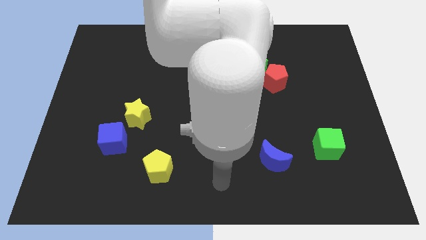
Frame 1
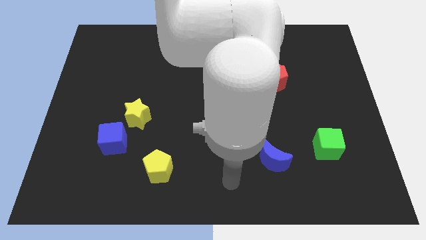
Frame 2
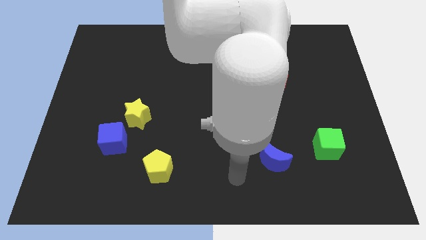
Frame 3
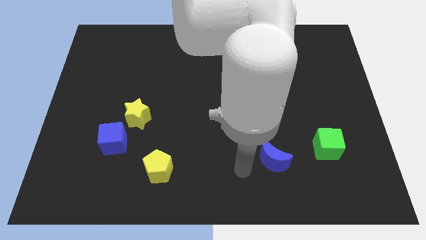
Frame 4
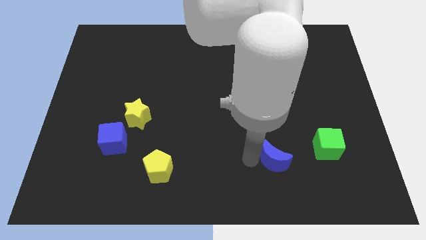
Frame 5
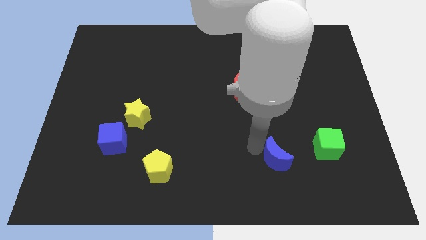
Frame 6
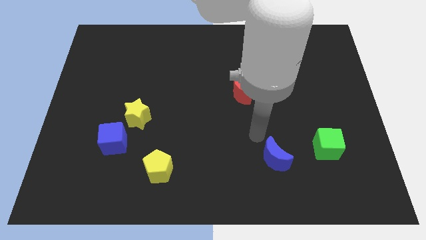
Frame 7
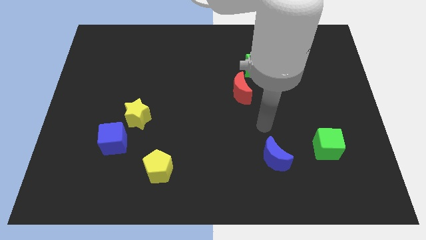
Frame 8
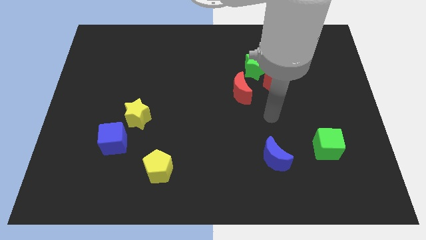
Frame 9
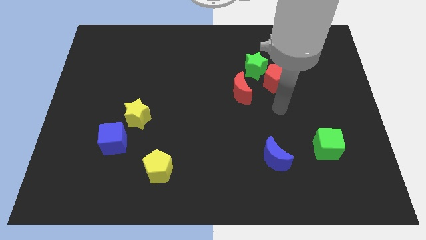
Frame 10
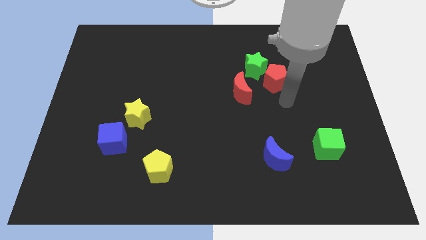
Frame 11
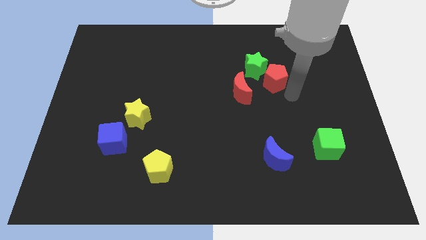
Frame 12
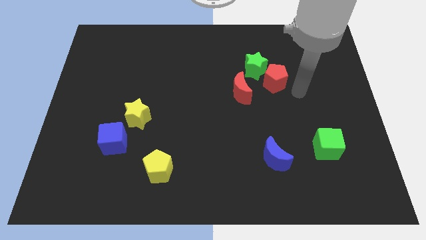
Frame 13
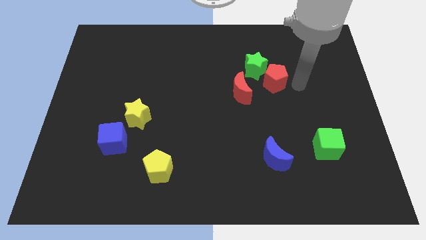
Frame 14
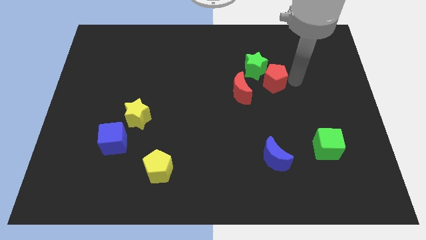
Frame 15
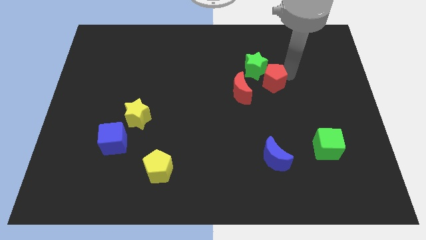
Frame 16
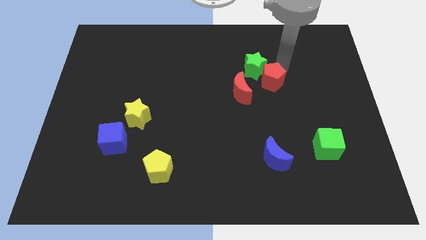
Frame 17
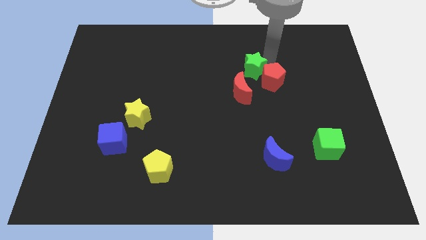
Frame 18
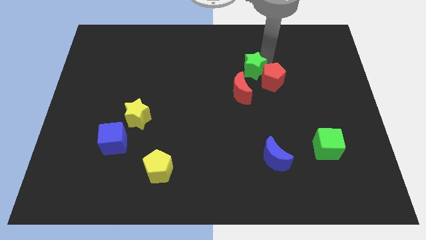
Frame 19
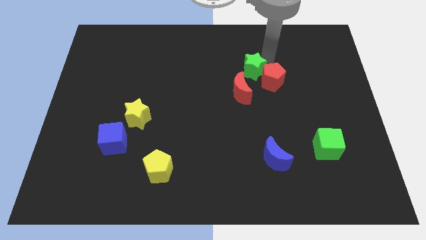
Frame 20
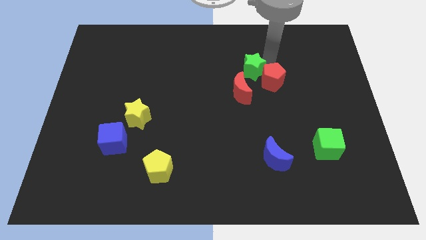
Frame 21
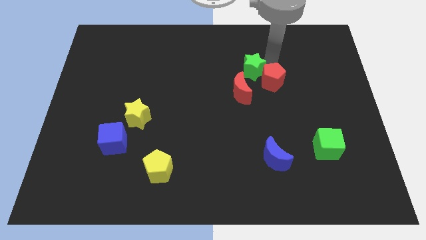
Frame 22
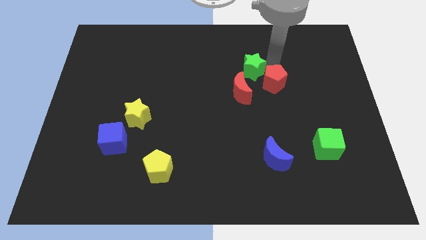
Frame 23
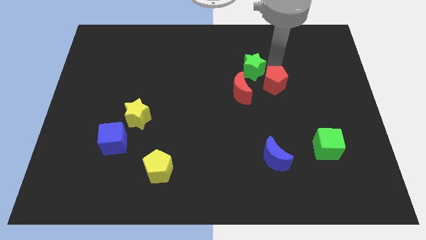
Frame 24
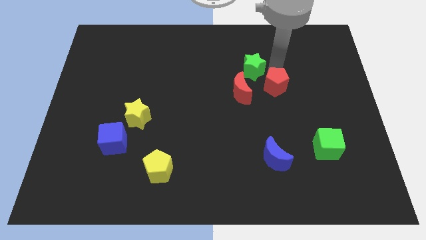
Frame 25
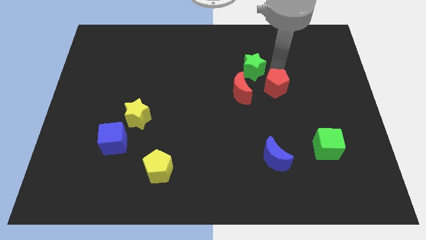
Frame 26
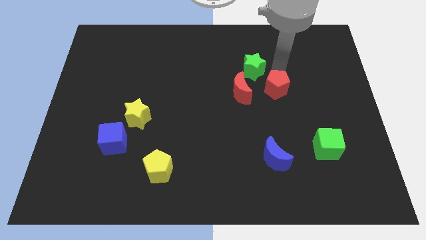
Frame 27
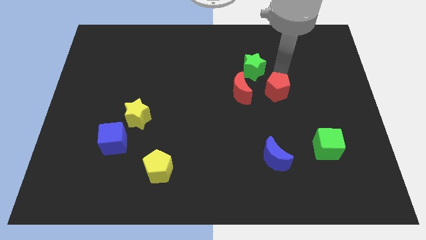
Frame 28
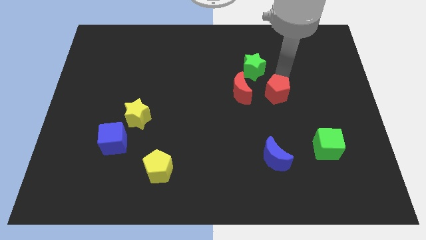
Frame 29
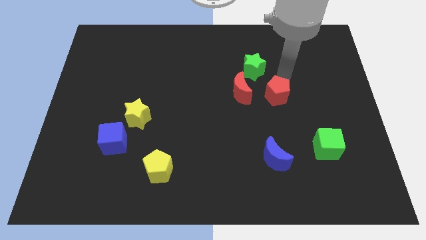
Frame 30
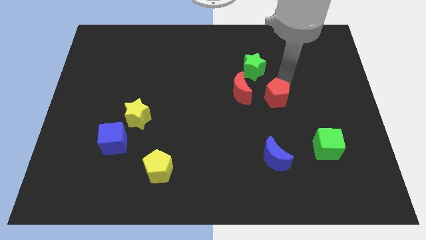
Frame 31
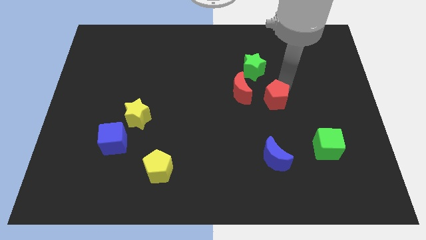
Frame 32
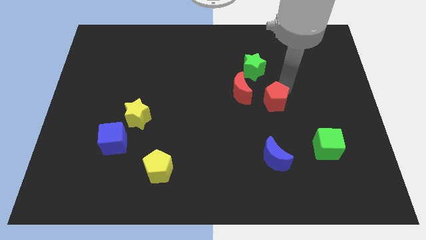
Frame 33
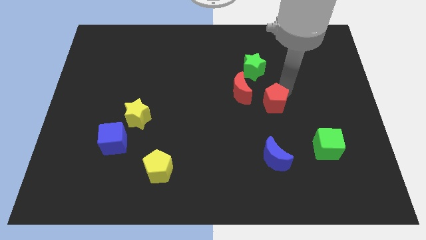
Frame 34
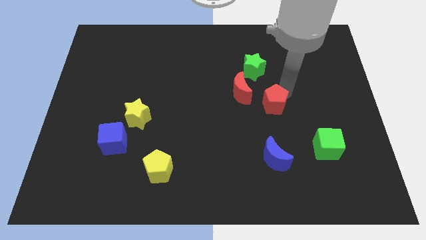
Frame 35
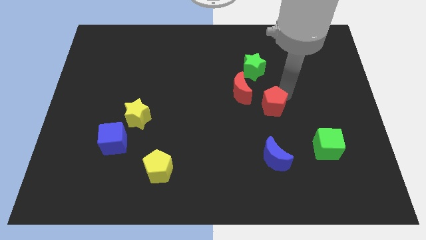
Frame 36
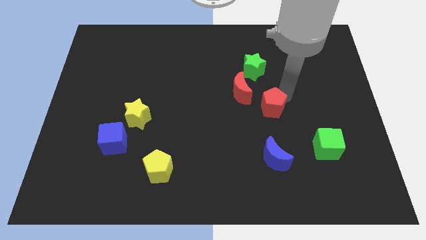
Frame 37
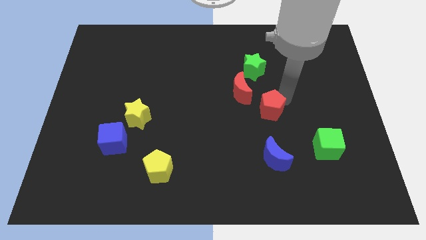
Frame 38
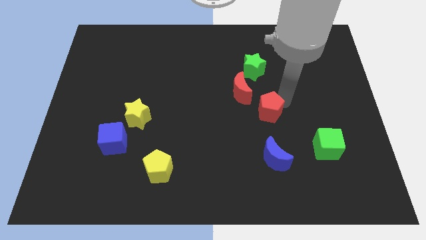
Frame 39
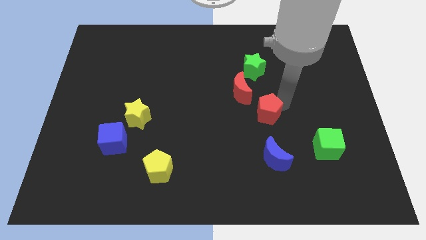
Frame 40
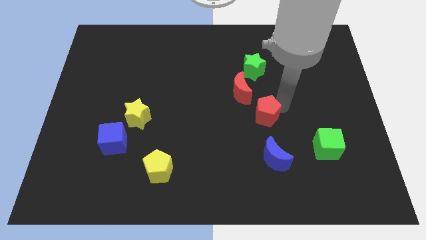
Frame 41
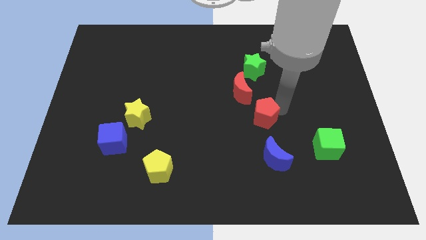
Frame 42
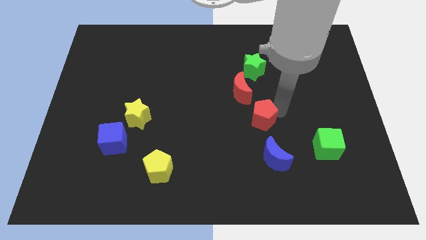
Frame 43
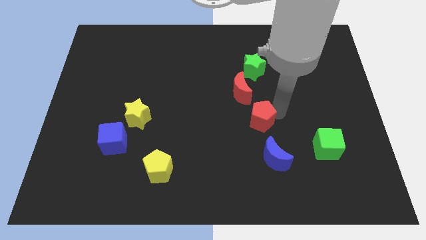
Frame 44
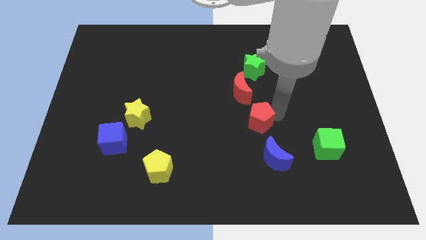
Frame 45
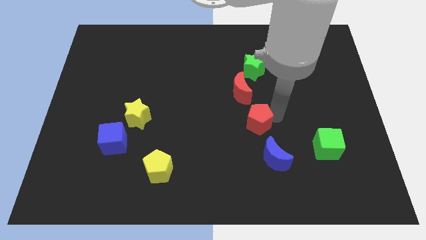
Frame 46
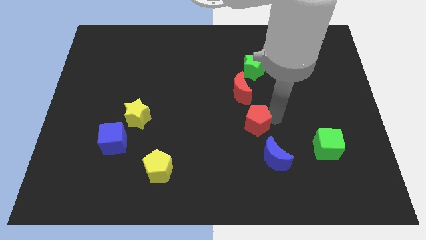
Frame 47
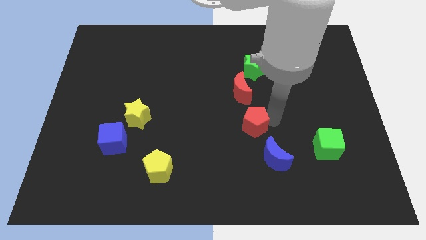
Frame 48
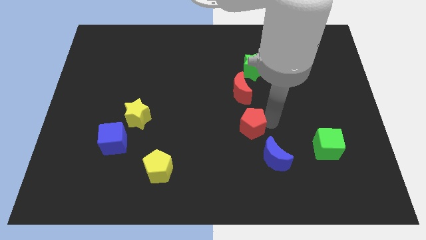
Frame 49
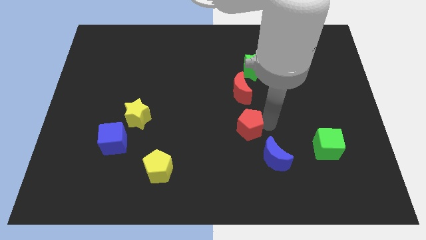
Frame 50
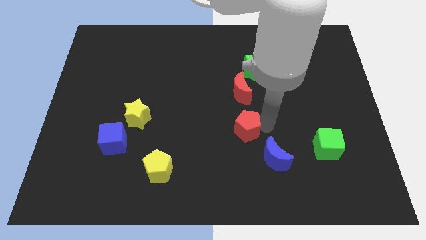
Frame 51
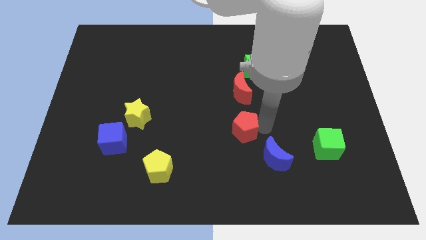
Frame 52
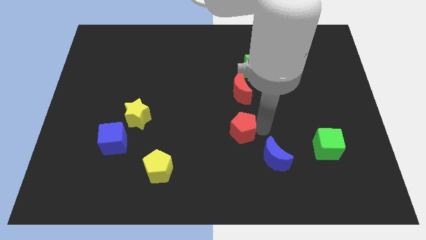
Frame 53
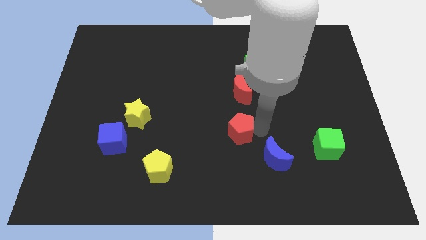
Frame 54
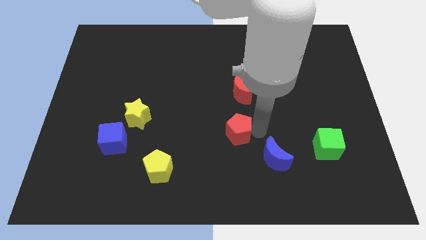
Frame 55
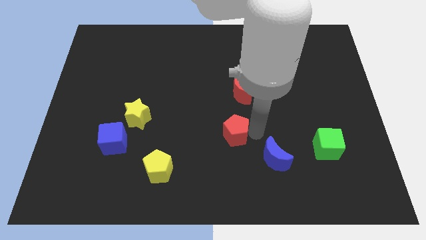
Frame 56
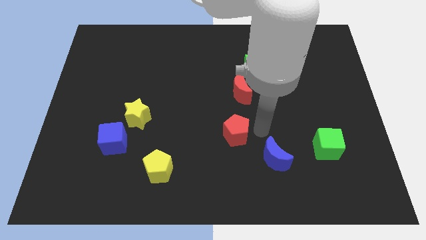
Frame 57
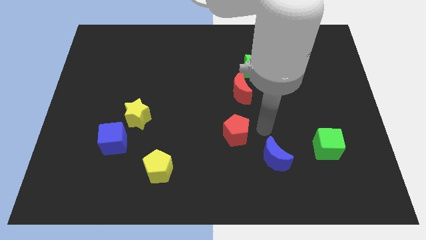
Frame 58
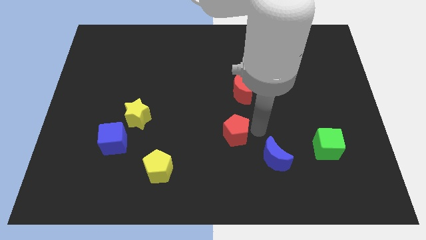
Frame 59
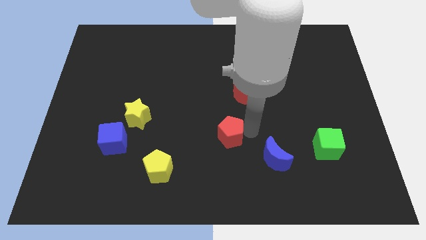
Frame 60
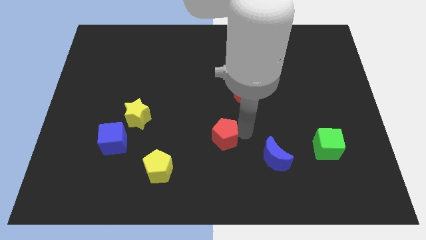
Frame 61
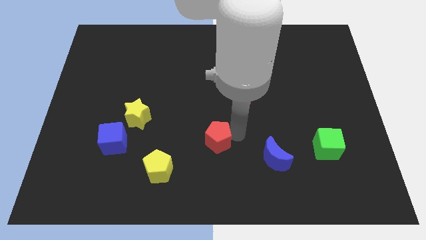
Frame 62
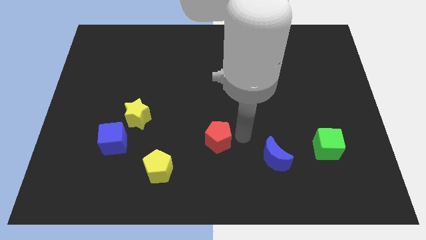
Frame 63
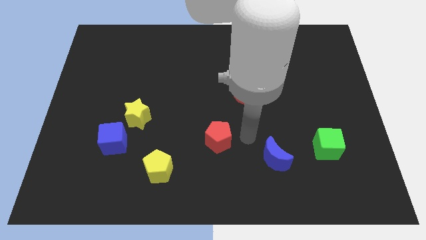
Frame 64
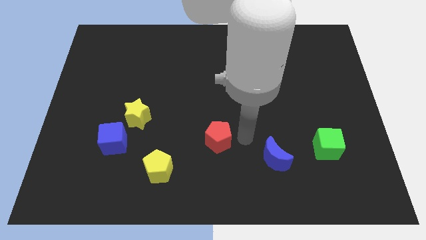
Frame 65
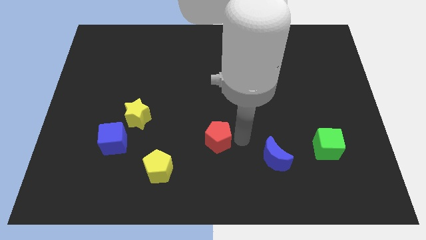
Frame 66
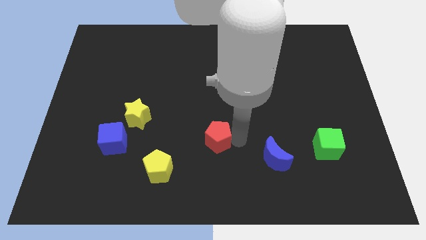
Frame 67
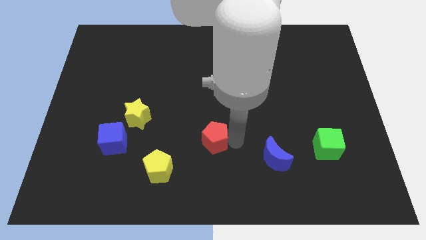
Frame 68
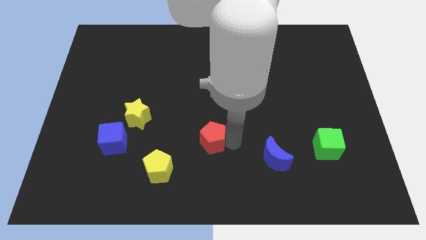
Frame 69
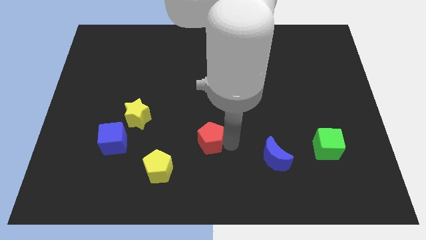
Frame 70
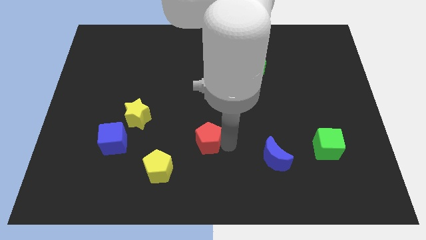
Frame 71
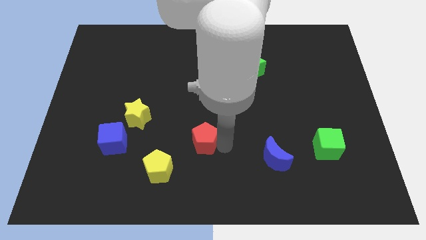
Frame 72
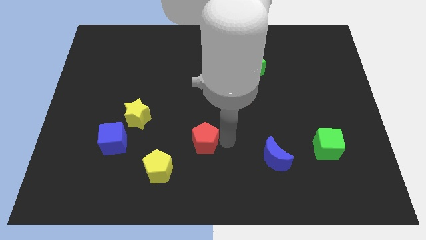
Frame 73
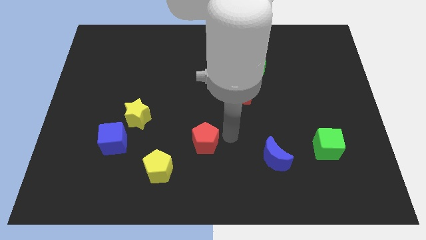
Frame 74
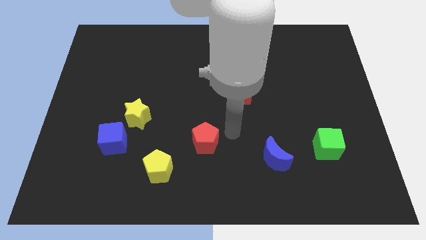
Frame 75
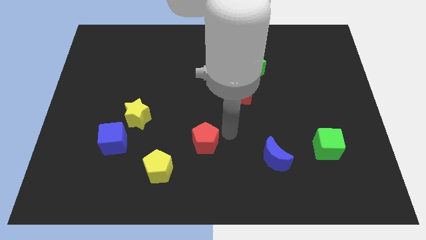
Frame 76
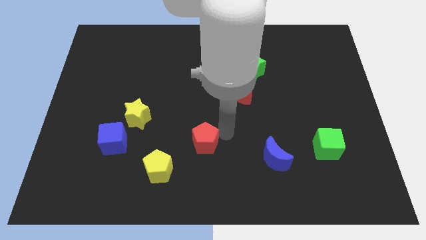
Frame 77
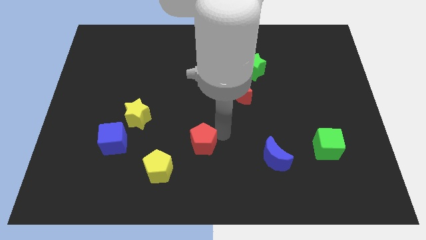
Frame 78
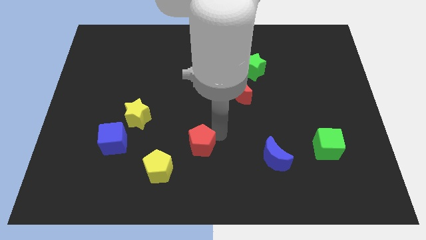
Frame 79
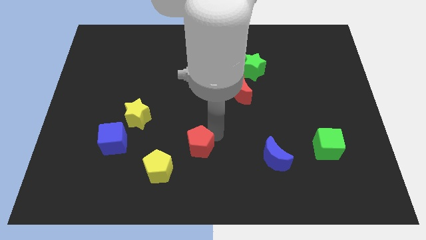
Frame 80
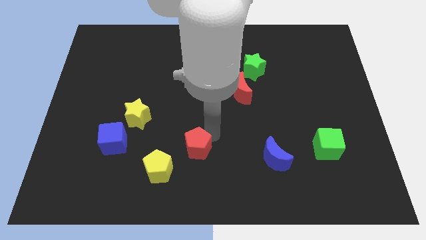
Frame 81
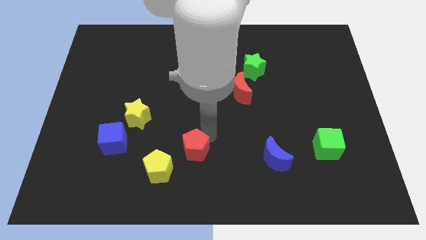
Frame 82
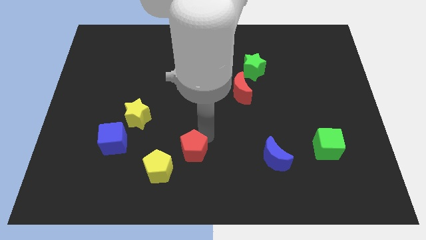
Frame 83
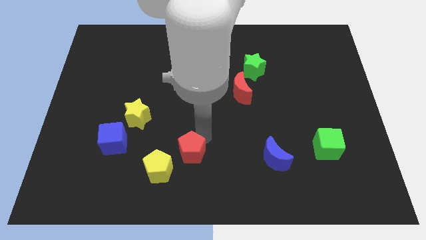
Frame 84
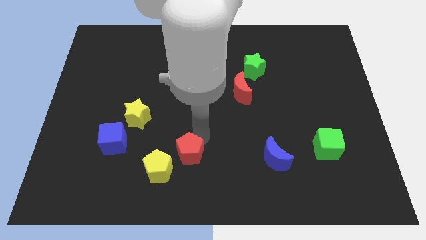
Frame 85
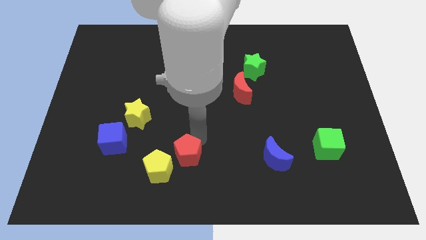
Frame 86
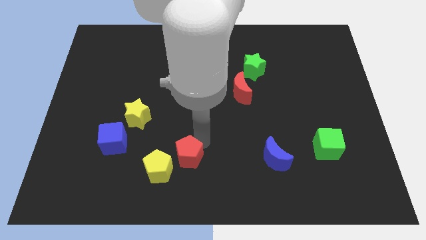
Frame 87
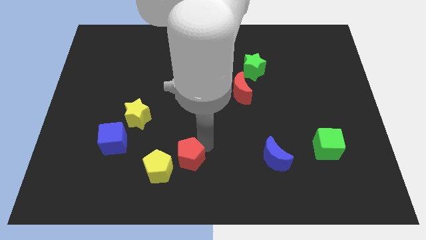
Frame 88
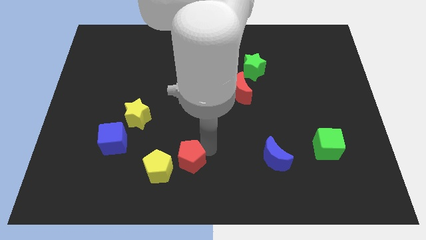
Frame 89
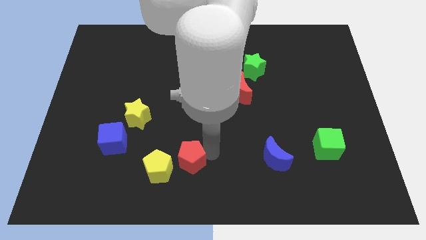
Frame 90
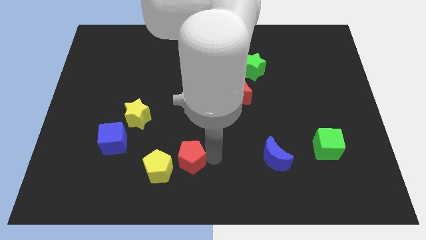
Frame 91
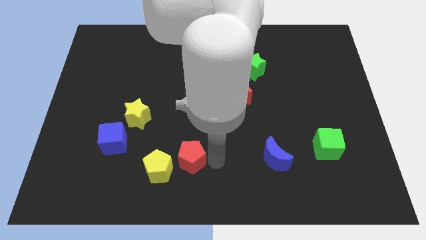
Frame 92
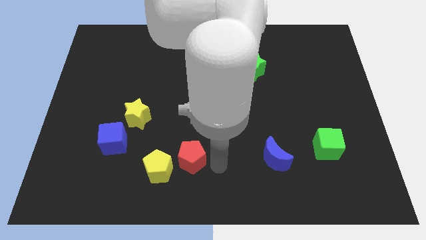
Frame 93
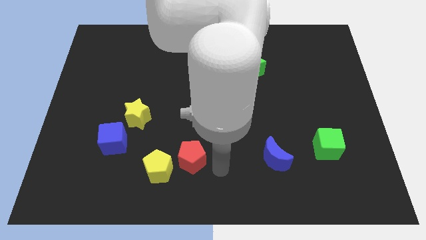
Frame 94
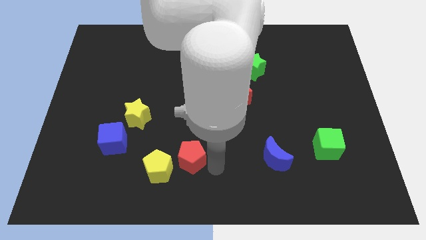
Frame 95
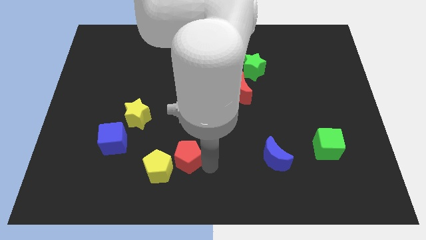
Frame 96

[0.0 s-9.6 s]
slide the red pentagon next to the yellow pentagon
